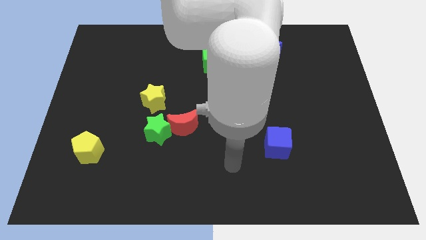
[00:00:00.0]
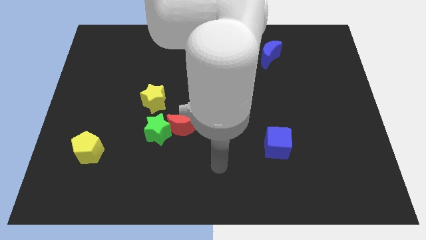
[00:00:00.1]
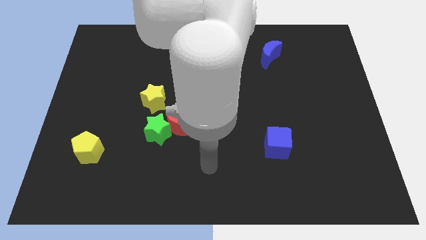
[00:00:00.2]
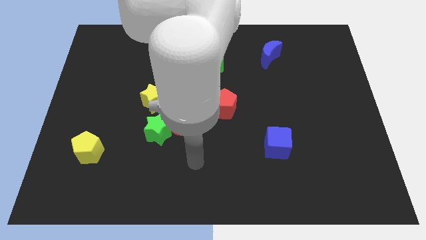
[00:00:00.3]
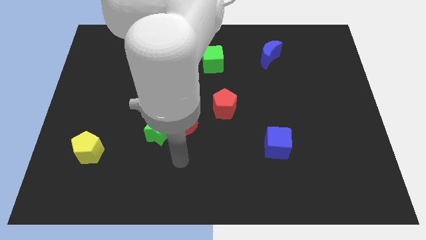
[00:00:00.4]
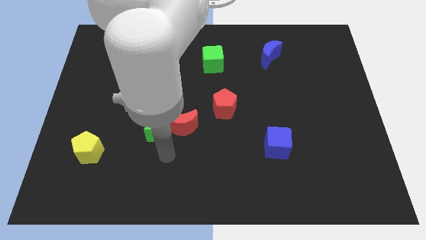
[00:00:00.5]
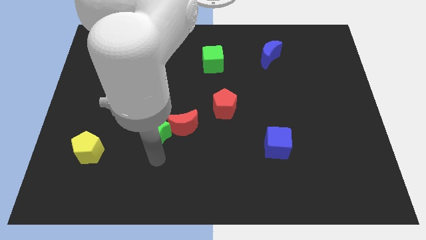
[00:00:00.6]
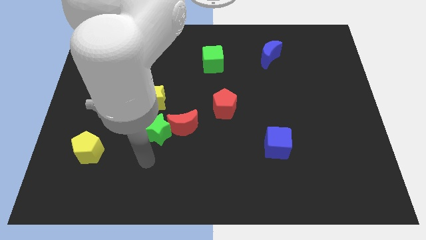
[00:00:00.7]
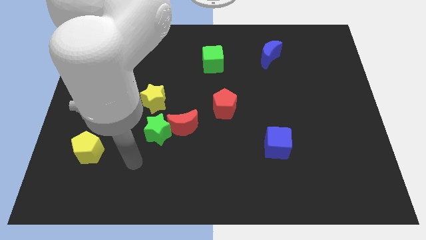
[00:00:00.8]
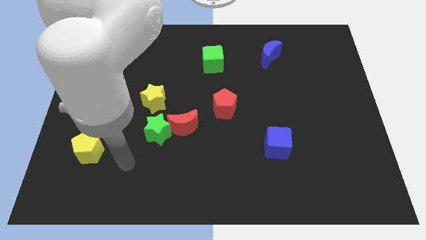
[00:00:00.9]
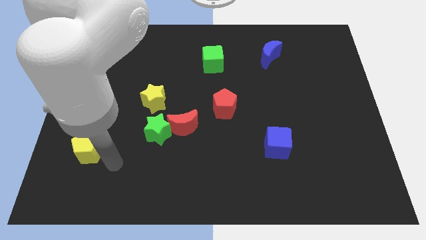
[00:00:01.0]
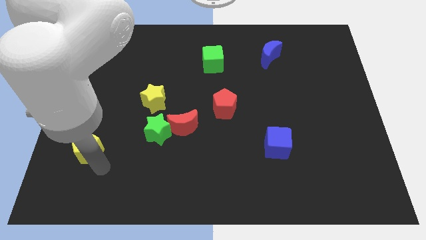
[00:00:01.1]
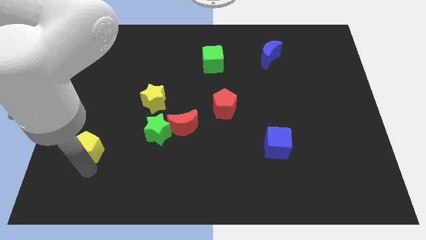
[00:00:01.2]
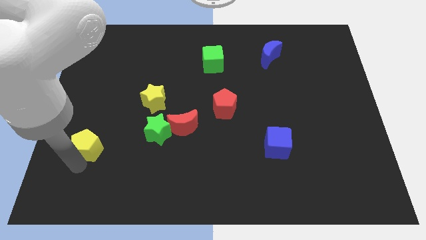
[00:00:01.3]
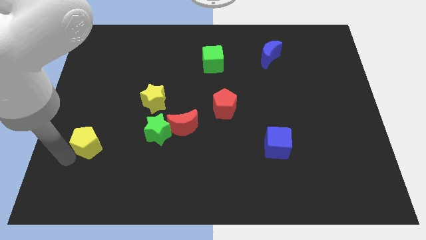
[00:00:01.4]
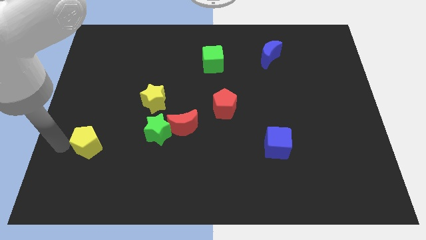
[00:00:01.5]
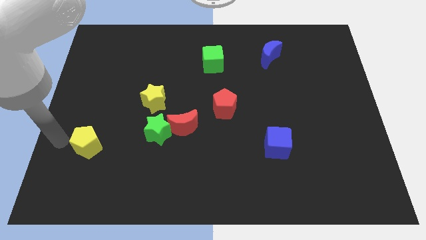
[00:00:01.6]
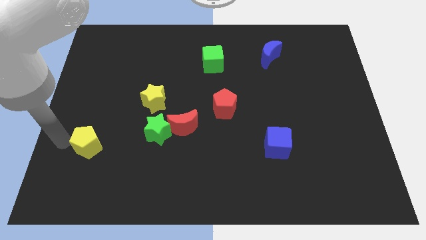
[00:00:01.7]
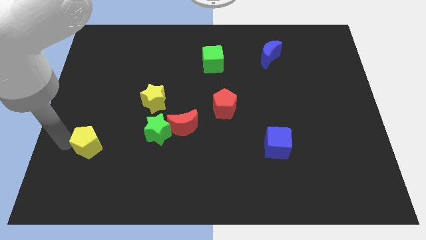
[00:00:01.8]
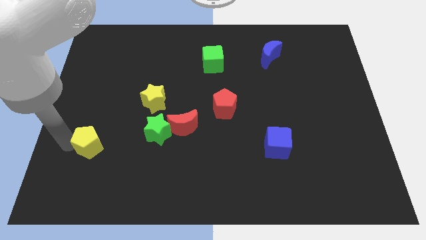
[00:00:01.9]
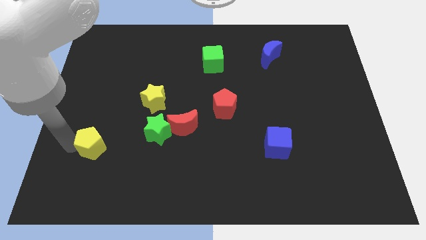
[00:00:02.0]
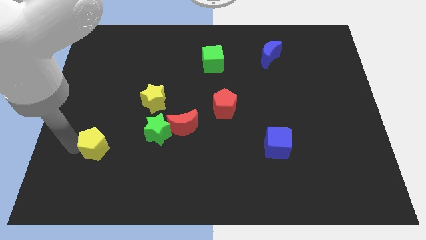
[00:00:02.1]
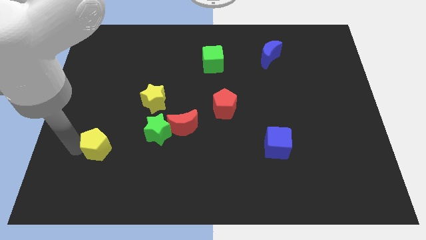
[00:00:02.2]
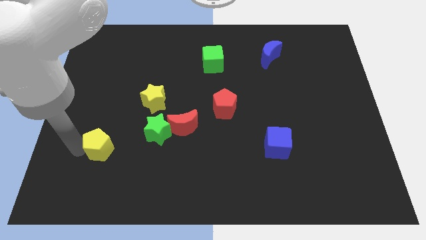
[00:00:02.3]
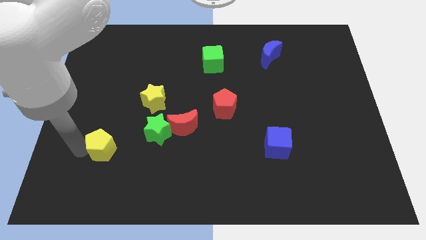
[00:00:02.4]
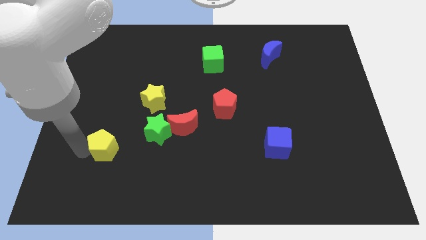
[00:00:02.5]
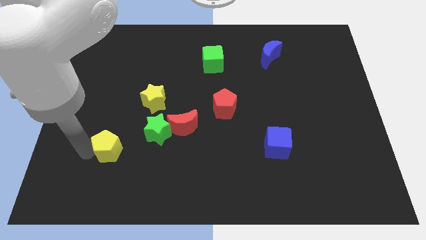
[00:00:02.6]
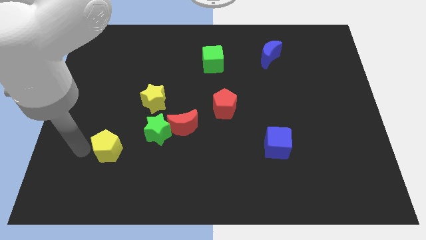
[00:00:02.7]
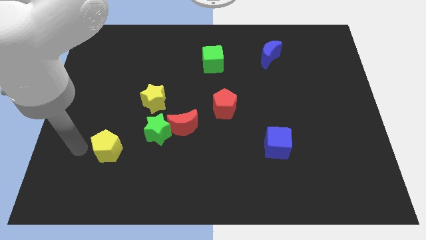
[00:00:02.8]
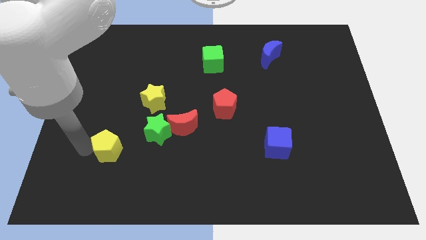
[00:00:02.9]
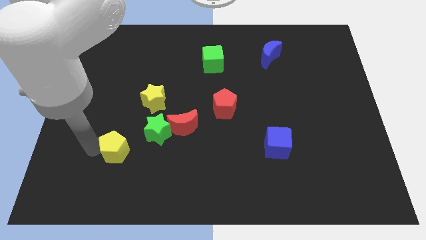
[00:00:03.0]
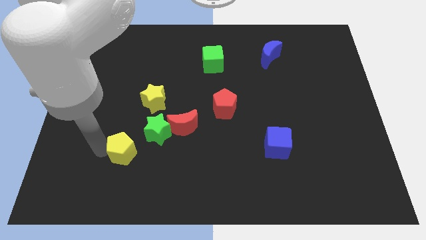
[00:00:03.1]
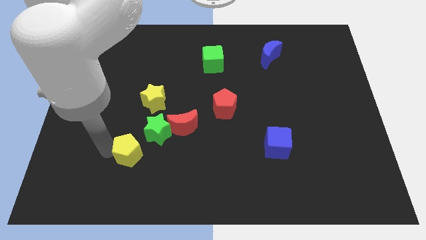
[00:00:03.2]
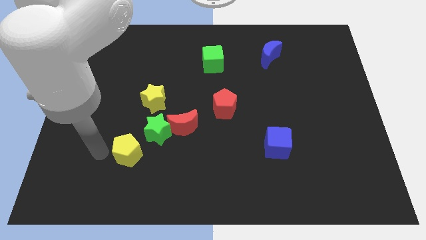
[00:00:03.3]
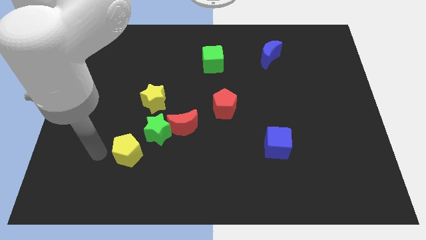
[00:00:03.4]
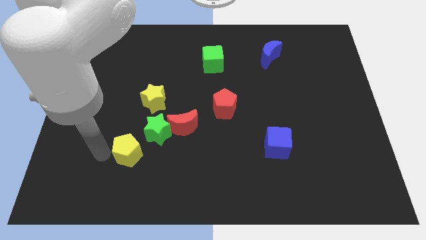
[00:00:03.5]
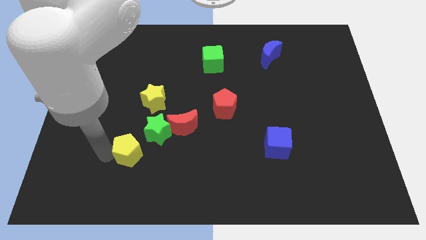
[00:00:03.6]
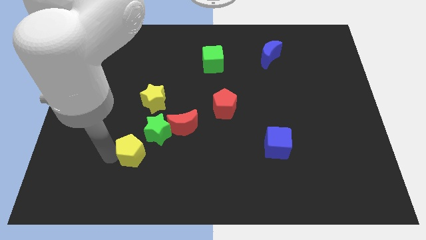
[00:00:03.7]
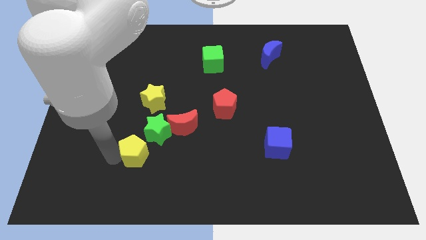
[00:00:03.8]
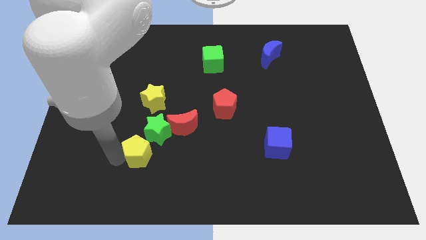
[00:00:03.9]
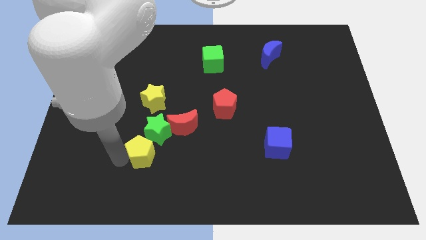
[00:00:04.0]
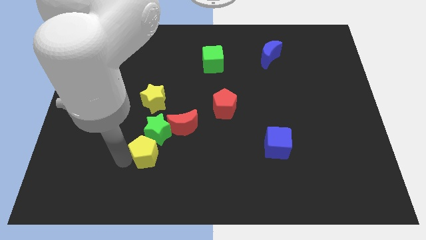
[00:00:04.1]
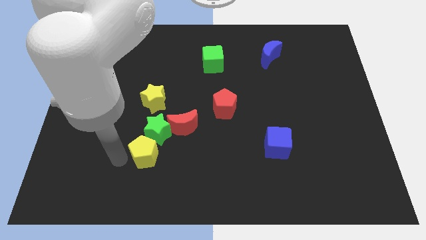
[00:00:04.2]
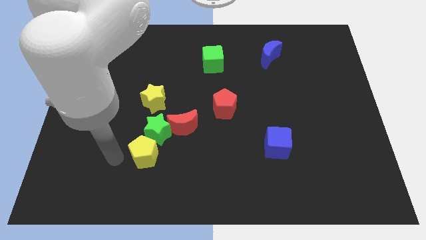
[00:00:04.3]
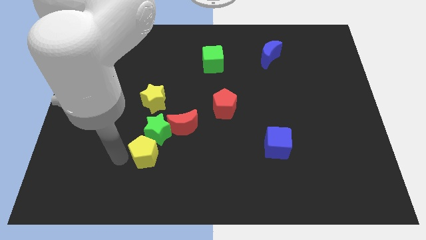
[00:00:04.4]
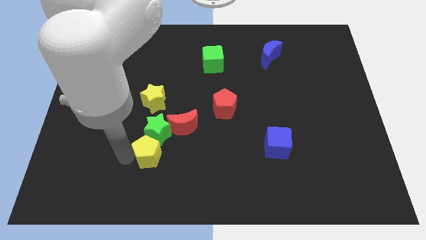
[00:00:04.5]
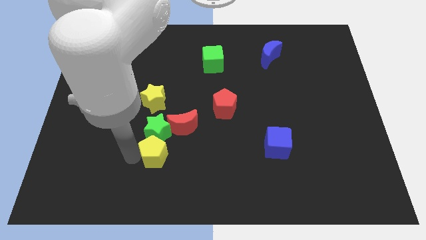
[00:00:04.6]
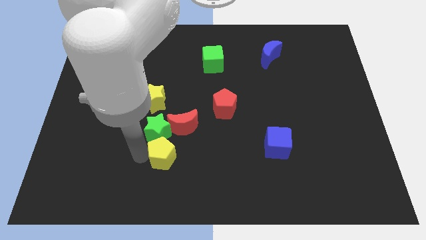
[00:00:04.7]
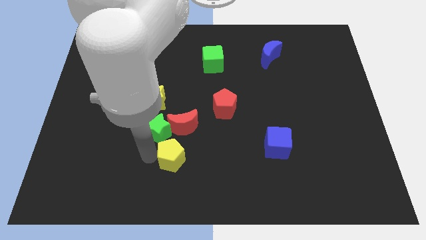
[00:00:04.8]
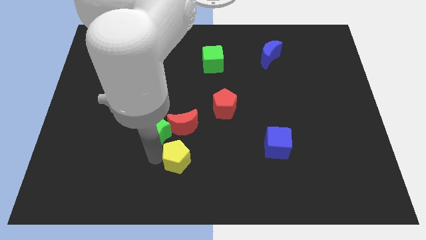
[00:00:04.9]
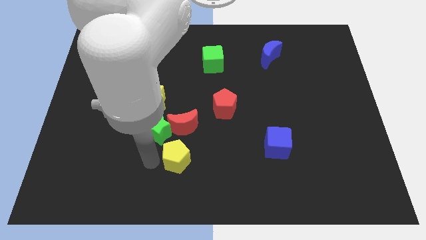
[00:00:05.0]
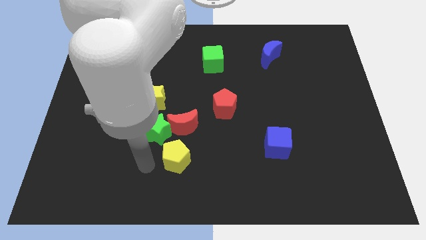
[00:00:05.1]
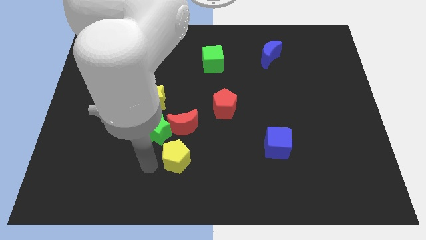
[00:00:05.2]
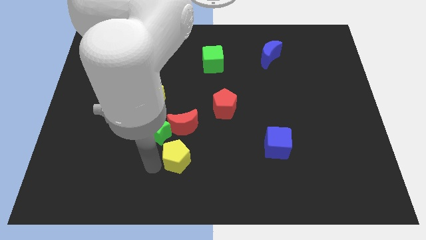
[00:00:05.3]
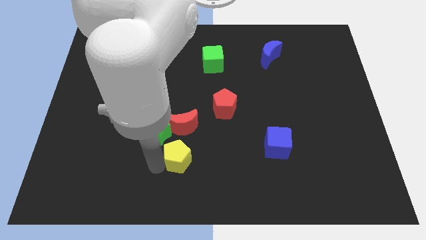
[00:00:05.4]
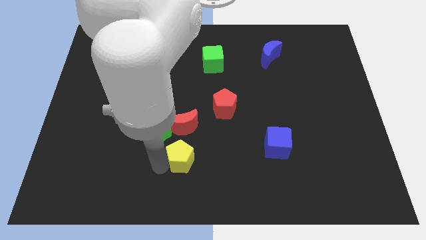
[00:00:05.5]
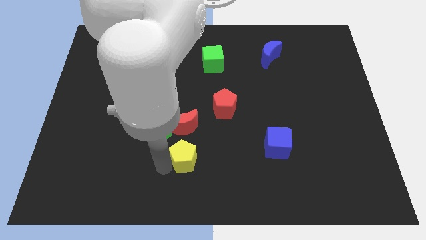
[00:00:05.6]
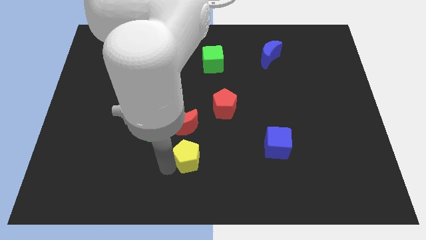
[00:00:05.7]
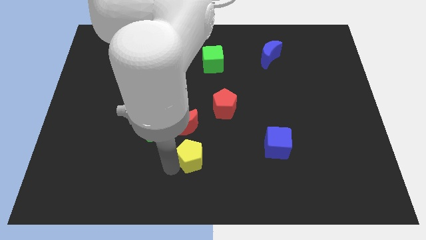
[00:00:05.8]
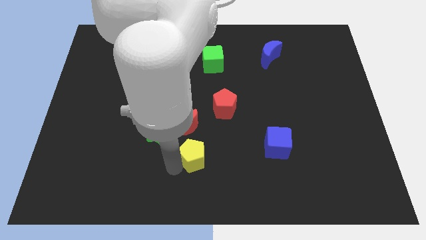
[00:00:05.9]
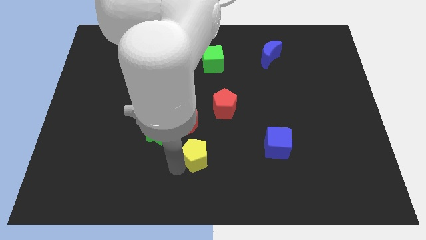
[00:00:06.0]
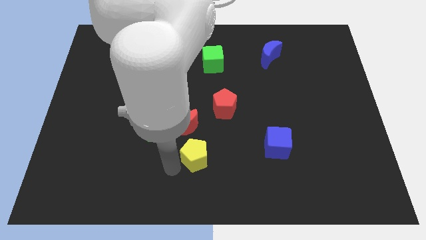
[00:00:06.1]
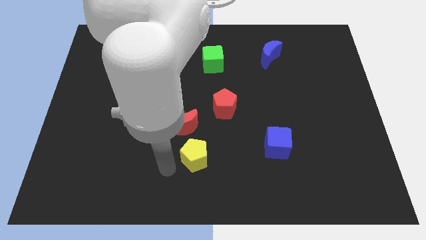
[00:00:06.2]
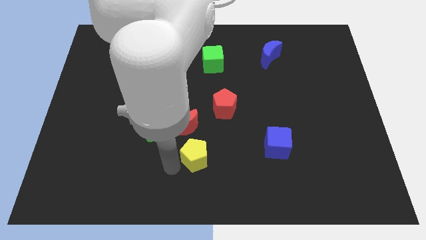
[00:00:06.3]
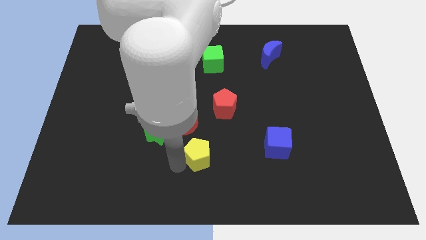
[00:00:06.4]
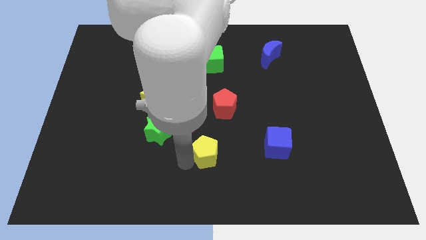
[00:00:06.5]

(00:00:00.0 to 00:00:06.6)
slide the yellow pentagon left of the blue cube

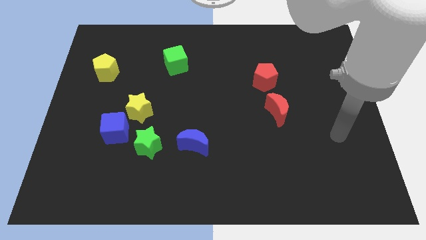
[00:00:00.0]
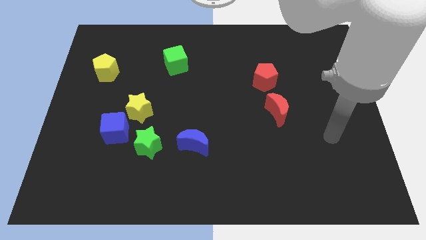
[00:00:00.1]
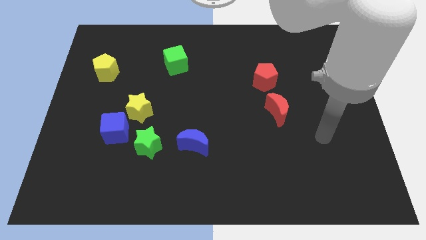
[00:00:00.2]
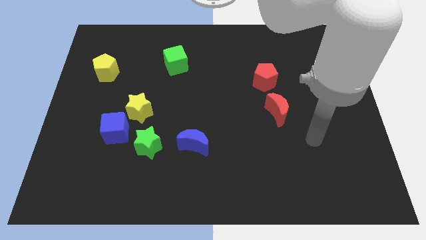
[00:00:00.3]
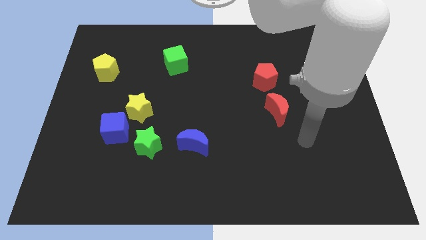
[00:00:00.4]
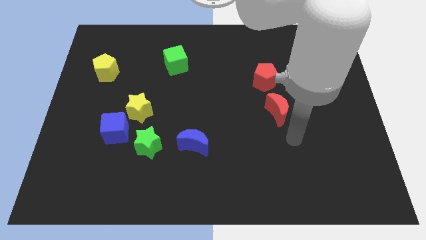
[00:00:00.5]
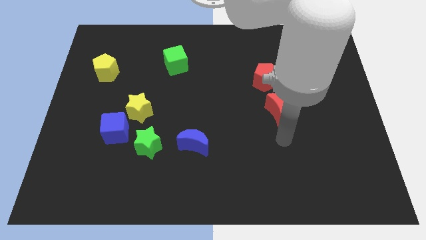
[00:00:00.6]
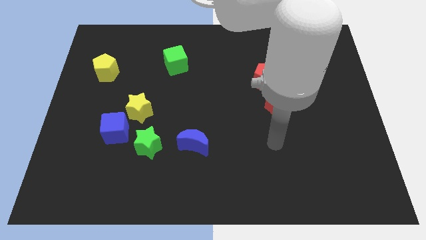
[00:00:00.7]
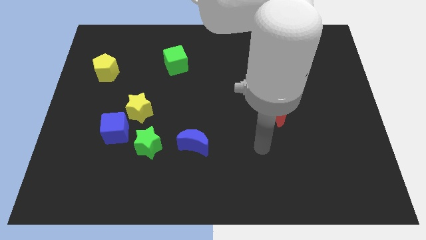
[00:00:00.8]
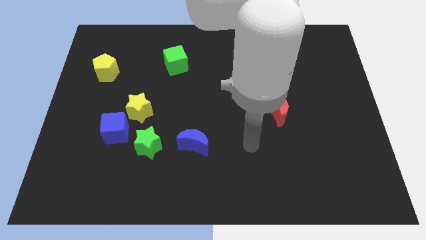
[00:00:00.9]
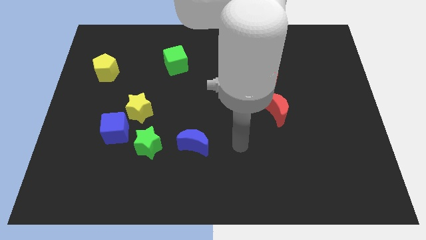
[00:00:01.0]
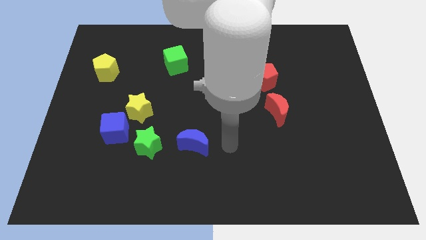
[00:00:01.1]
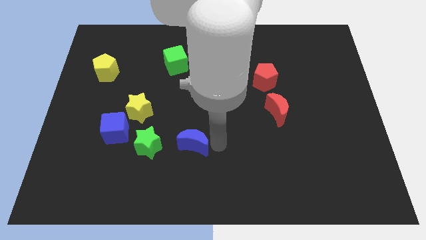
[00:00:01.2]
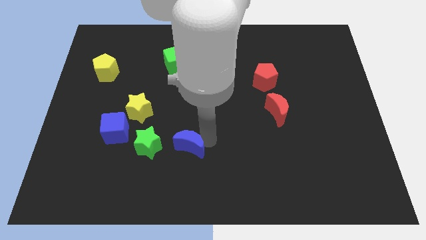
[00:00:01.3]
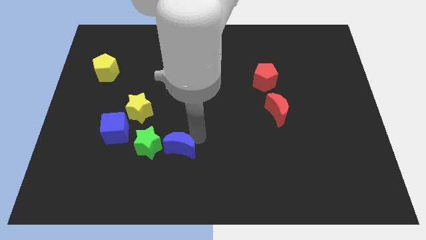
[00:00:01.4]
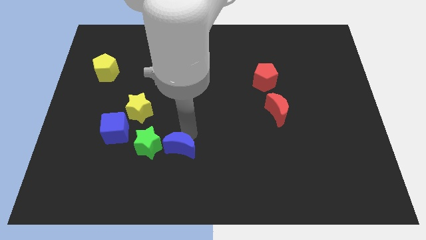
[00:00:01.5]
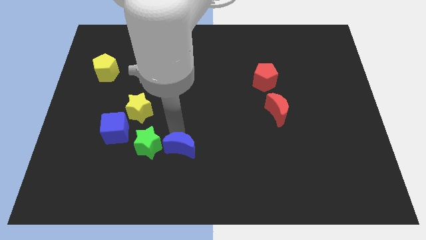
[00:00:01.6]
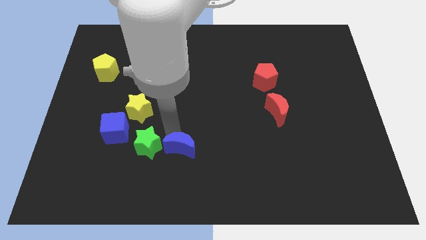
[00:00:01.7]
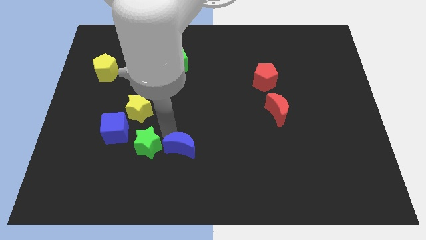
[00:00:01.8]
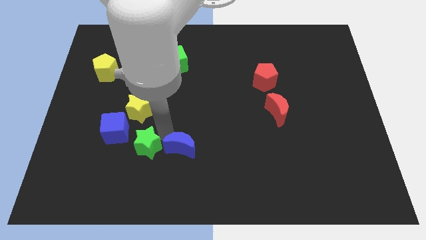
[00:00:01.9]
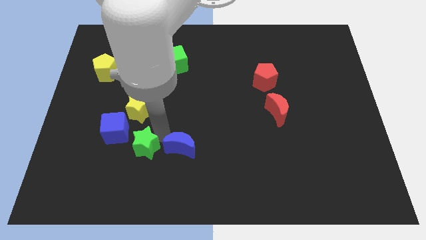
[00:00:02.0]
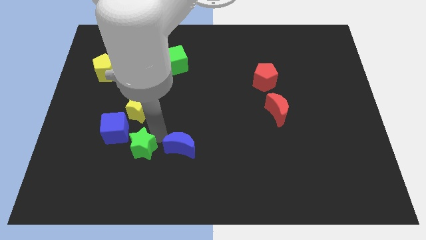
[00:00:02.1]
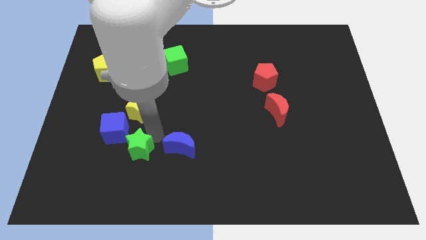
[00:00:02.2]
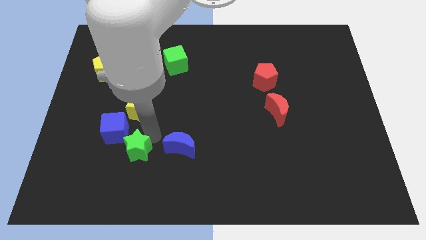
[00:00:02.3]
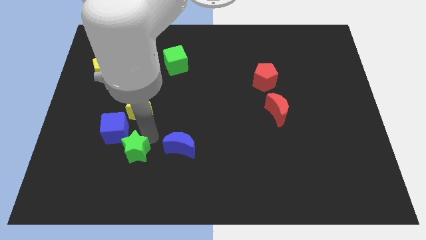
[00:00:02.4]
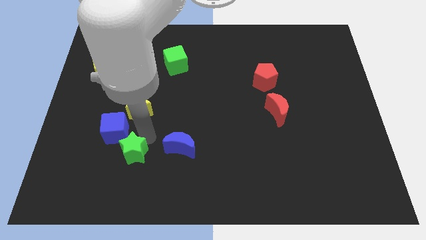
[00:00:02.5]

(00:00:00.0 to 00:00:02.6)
push the green star below the blue cube
